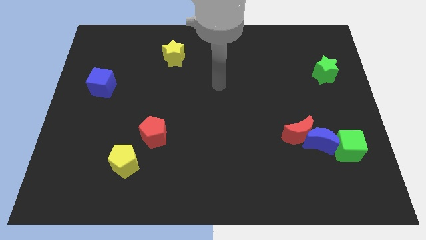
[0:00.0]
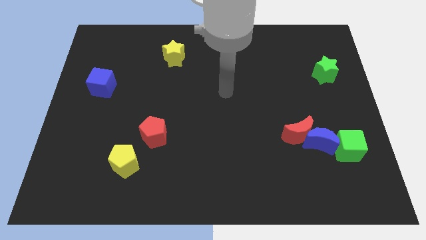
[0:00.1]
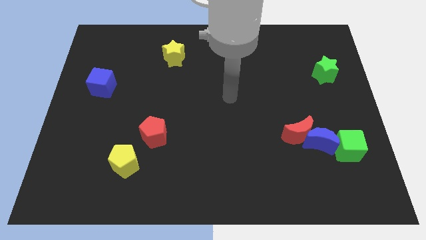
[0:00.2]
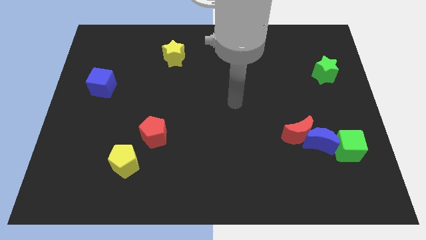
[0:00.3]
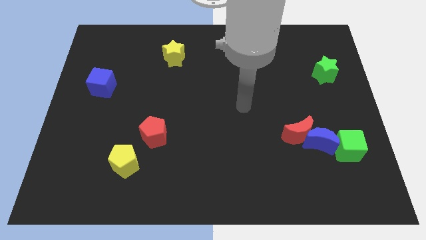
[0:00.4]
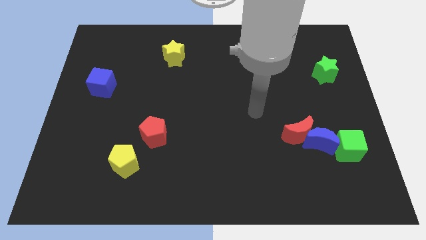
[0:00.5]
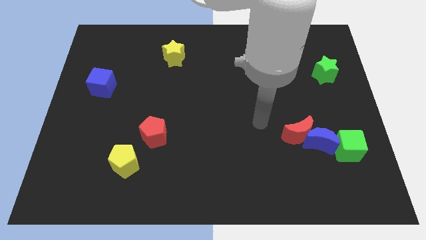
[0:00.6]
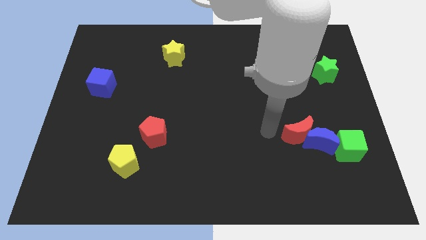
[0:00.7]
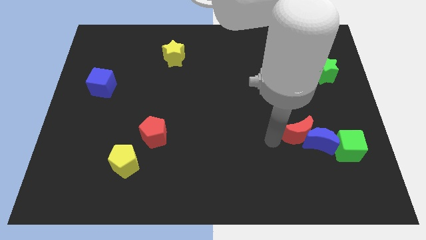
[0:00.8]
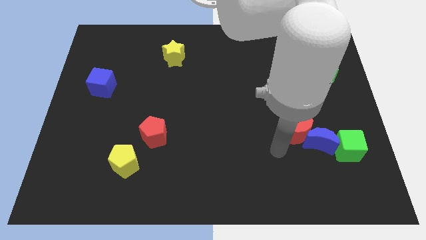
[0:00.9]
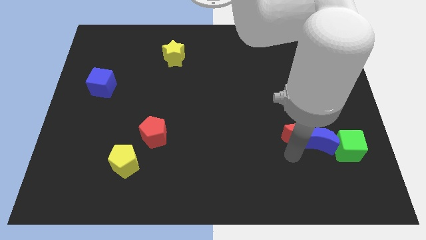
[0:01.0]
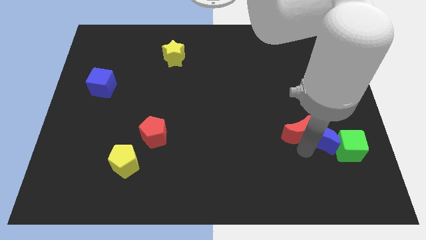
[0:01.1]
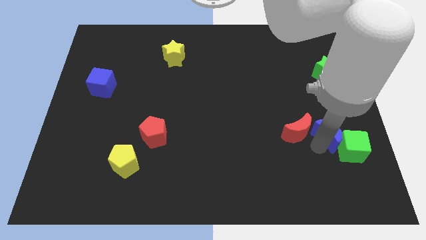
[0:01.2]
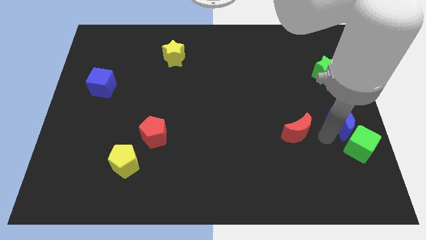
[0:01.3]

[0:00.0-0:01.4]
separate the red moon from the blue moon

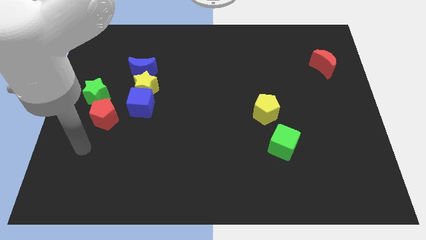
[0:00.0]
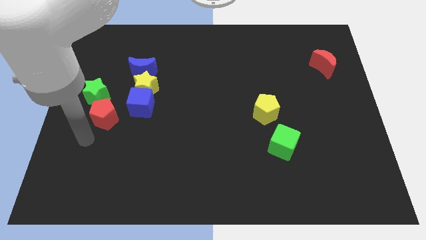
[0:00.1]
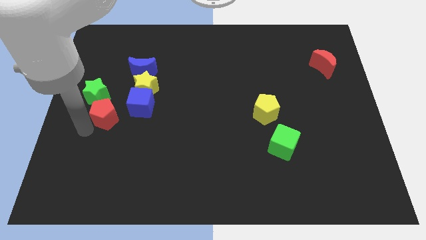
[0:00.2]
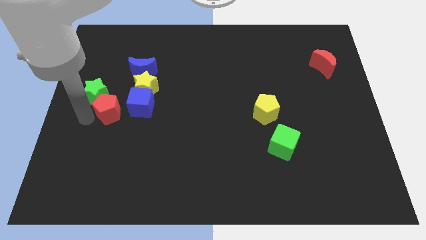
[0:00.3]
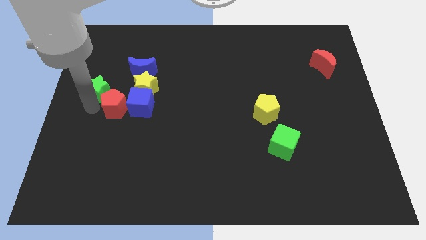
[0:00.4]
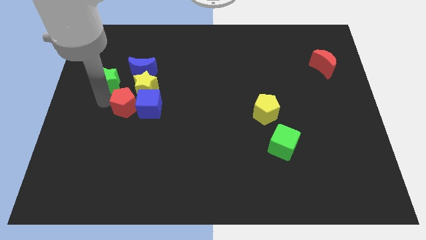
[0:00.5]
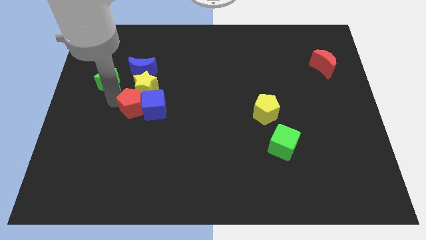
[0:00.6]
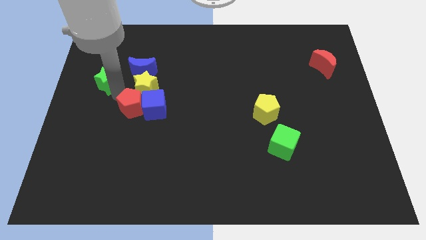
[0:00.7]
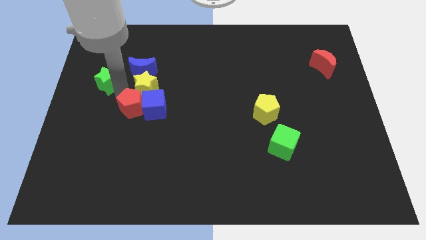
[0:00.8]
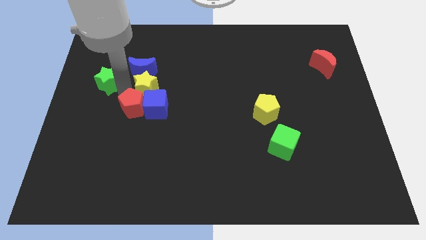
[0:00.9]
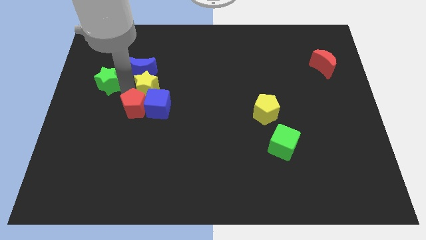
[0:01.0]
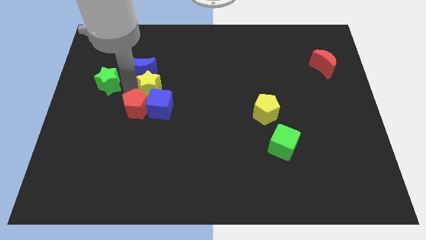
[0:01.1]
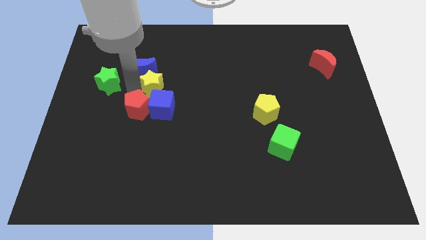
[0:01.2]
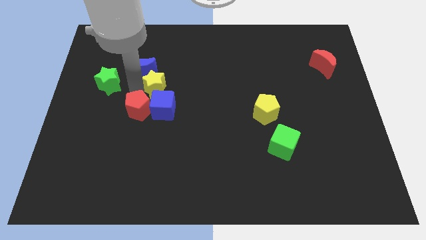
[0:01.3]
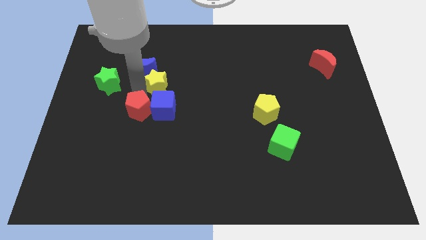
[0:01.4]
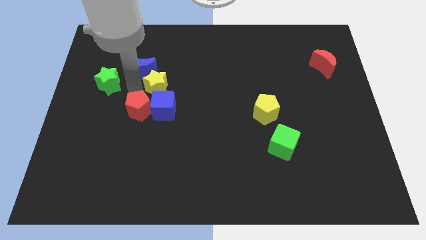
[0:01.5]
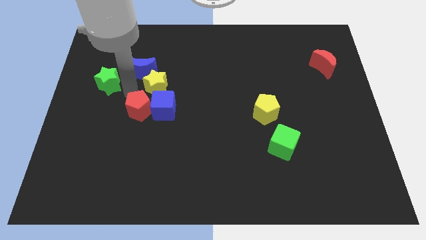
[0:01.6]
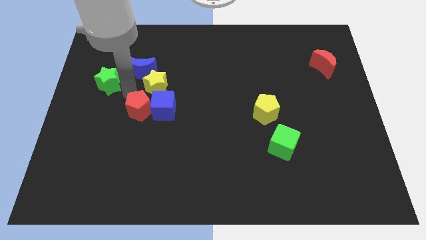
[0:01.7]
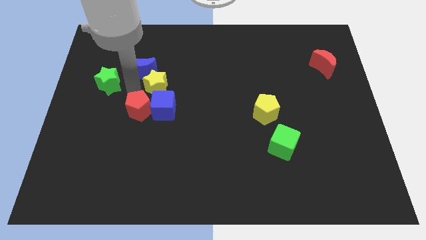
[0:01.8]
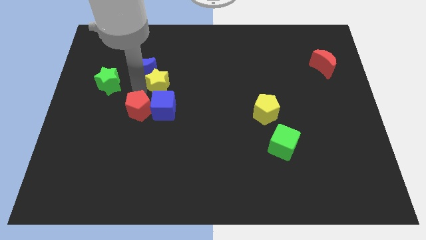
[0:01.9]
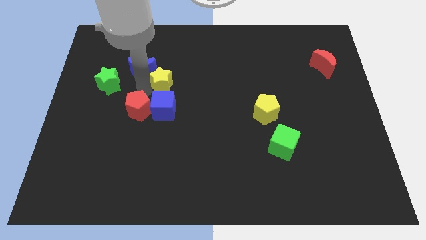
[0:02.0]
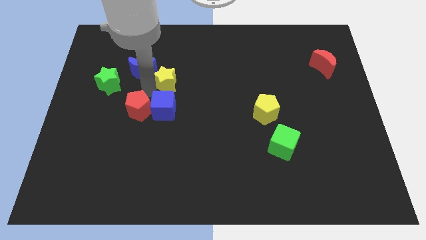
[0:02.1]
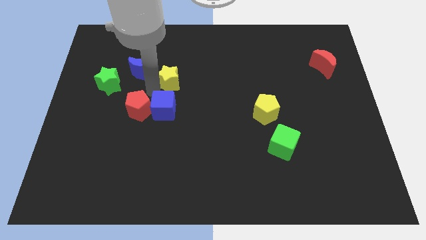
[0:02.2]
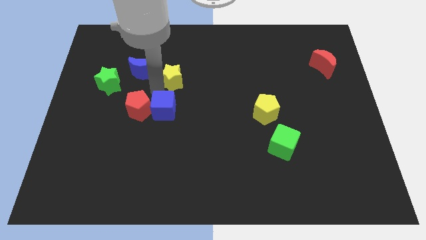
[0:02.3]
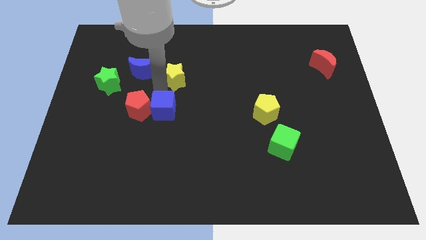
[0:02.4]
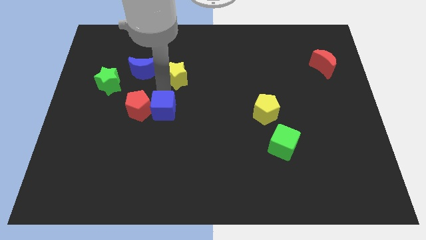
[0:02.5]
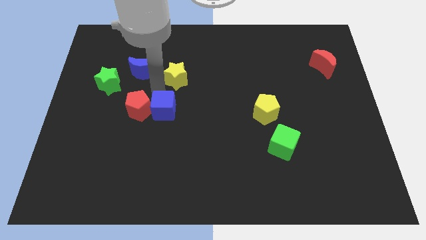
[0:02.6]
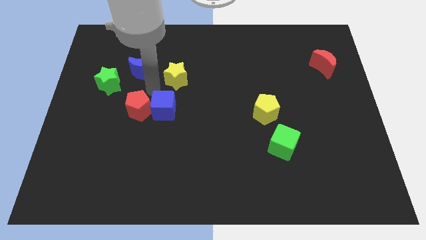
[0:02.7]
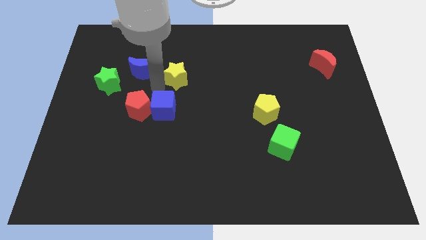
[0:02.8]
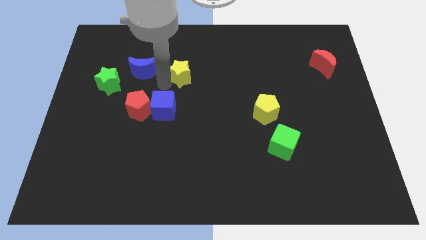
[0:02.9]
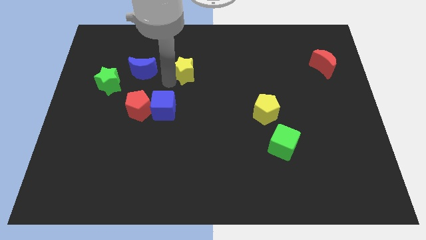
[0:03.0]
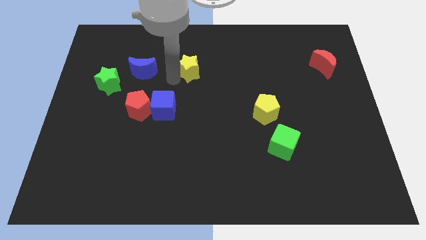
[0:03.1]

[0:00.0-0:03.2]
separate the yellow star from the blue cube and blue moon

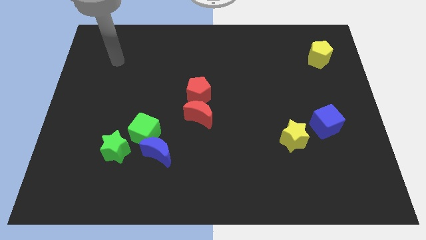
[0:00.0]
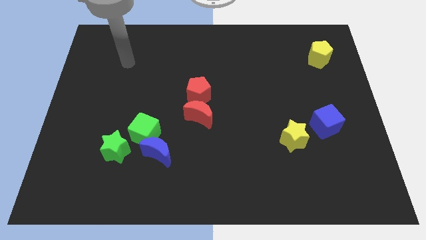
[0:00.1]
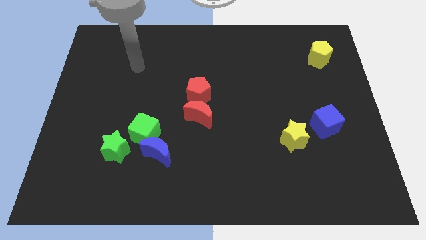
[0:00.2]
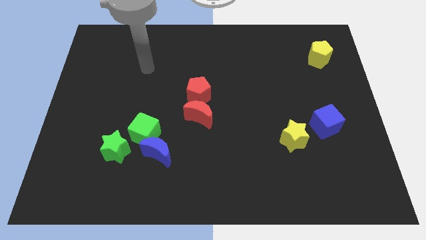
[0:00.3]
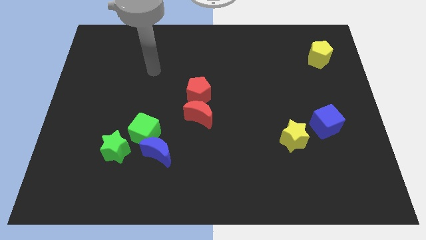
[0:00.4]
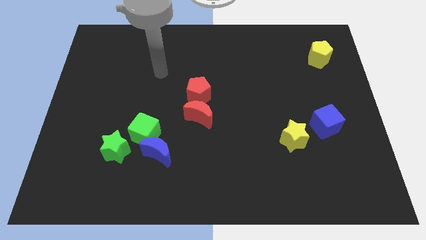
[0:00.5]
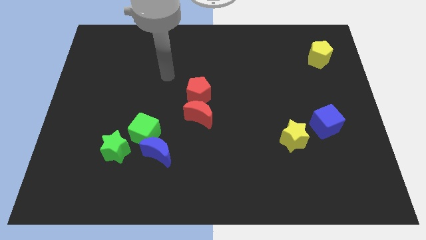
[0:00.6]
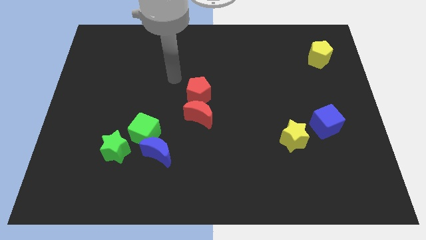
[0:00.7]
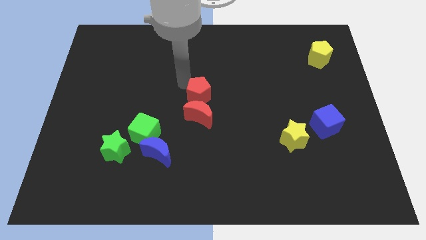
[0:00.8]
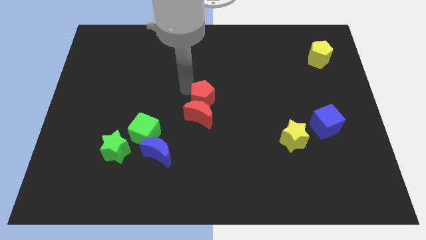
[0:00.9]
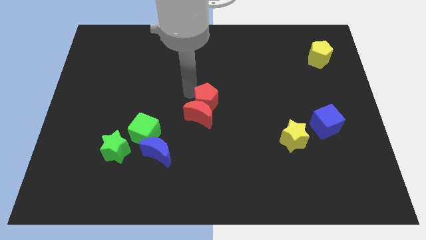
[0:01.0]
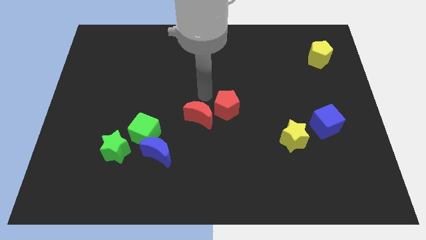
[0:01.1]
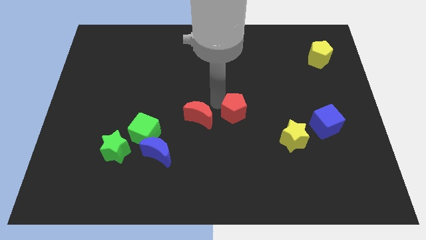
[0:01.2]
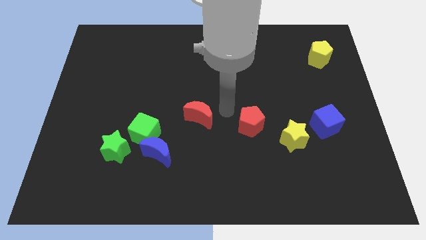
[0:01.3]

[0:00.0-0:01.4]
separate the red moon from the red pentagon

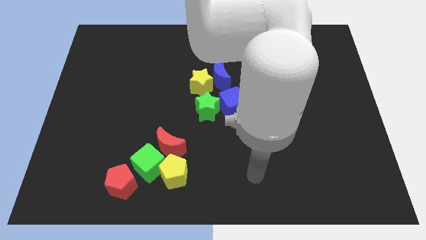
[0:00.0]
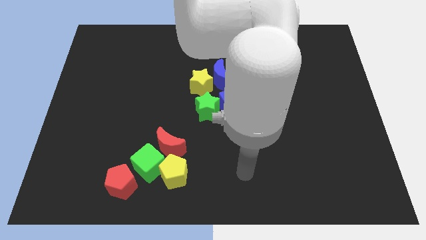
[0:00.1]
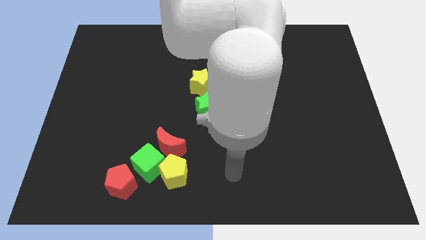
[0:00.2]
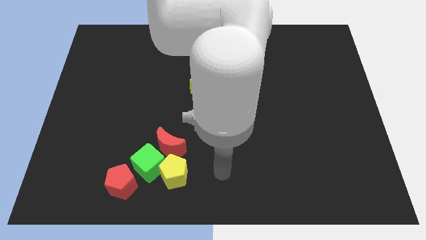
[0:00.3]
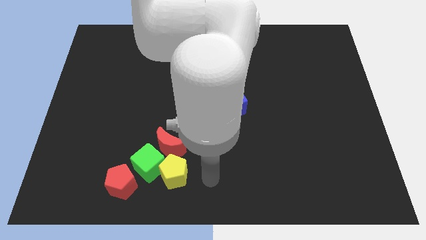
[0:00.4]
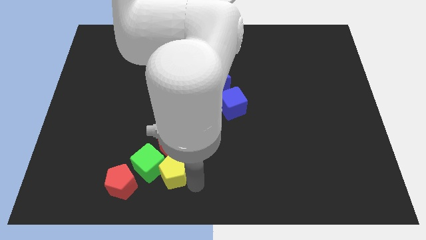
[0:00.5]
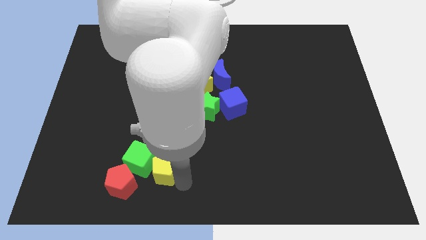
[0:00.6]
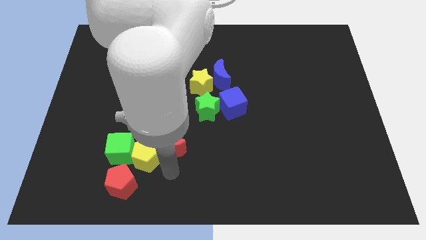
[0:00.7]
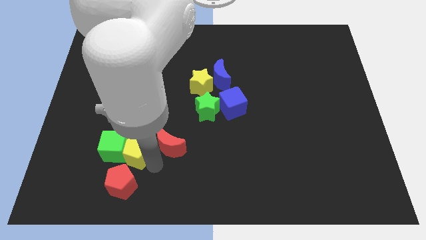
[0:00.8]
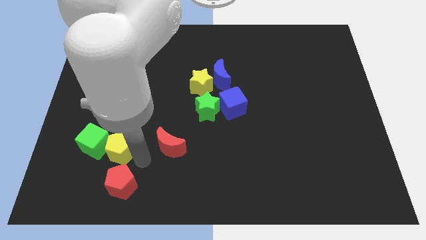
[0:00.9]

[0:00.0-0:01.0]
pull the green cube apart from the group

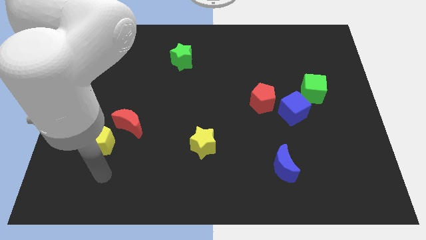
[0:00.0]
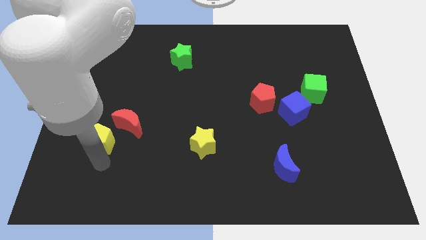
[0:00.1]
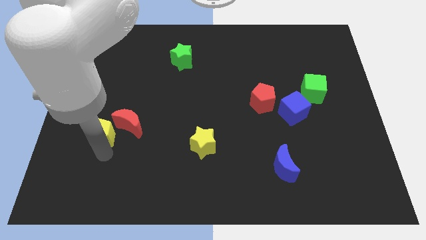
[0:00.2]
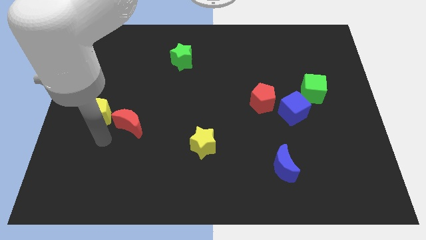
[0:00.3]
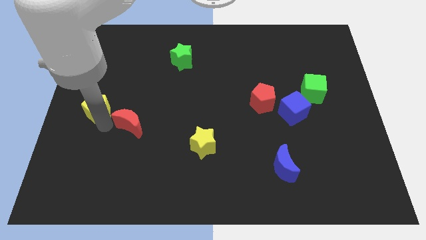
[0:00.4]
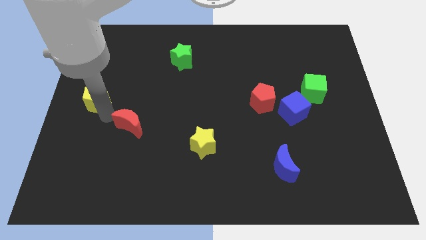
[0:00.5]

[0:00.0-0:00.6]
separate the red moon from the yellow pentagon

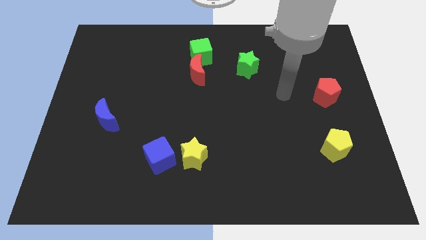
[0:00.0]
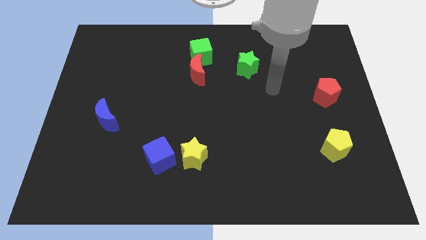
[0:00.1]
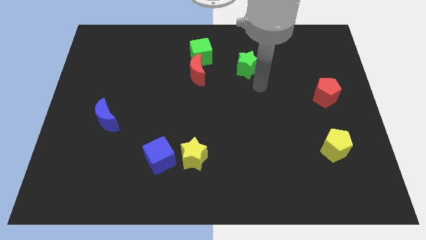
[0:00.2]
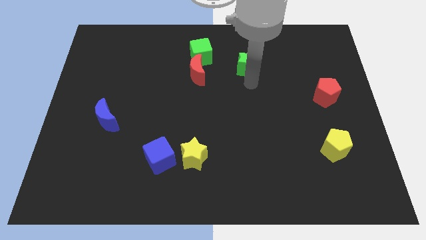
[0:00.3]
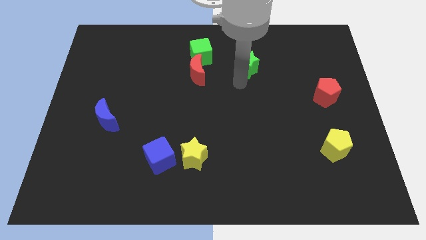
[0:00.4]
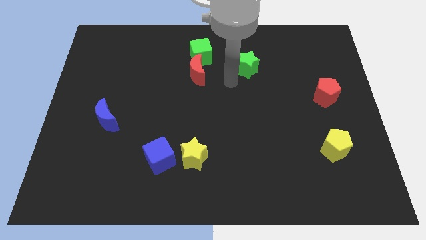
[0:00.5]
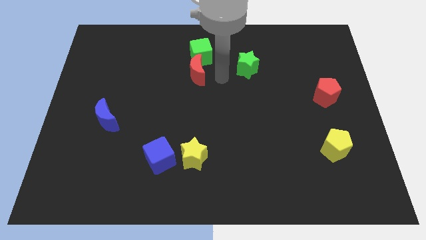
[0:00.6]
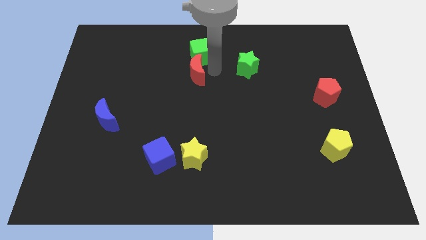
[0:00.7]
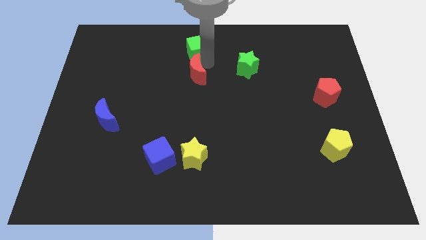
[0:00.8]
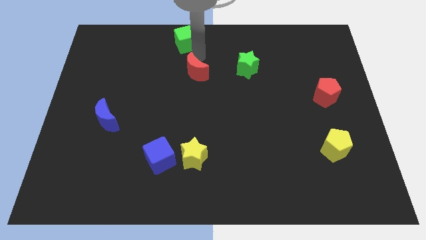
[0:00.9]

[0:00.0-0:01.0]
pull the red moon apart from the green cube

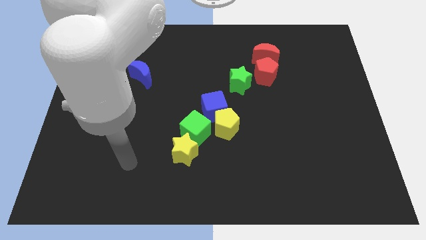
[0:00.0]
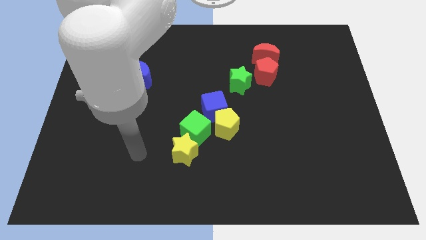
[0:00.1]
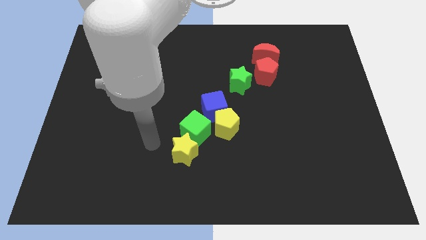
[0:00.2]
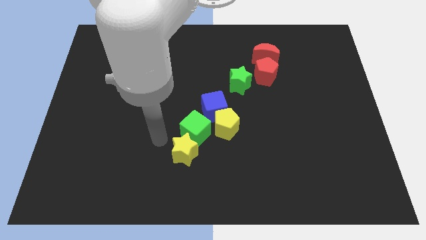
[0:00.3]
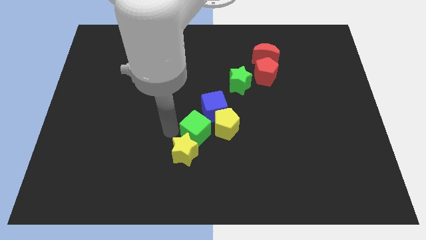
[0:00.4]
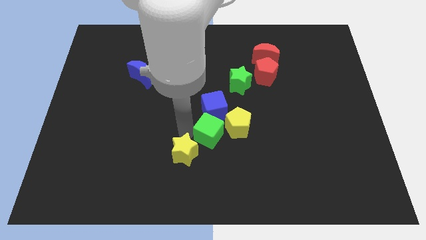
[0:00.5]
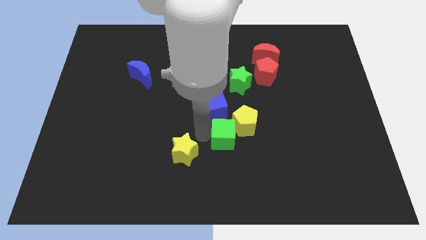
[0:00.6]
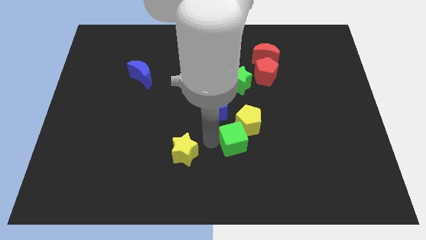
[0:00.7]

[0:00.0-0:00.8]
move the yellow star away from the green cube
